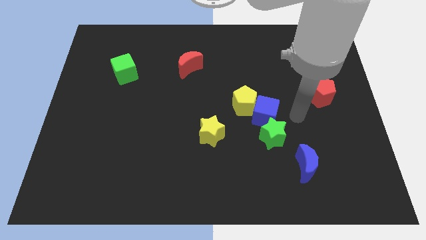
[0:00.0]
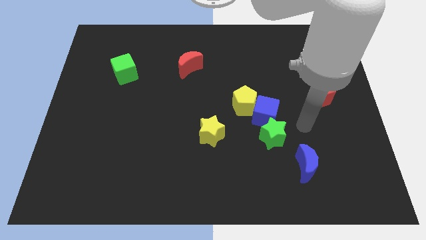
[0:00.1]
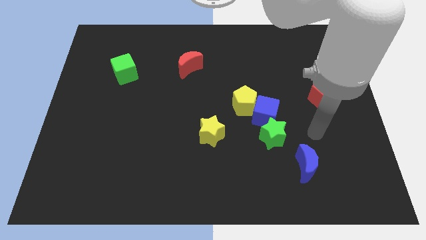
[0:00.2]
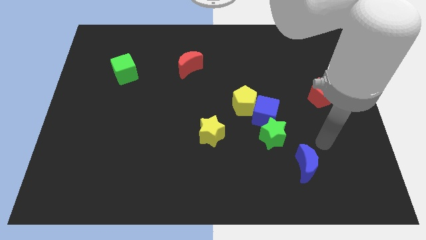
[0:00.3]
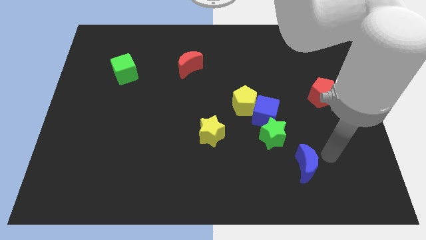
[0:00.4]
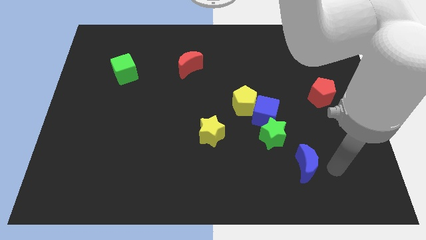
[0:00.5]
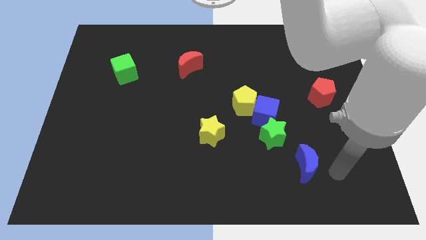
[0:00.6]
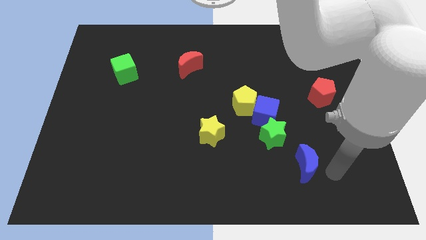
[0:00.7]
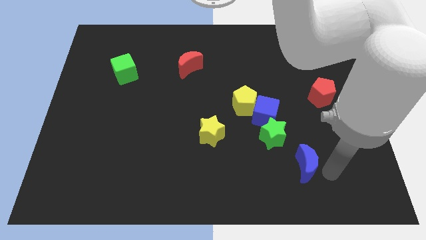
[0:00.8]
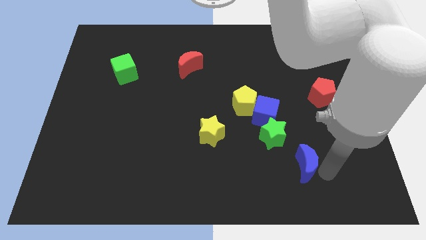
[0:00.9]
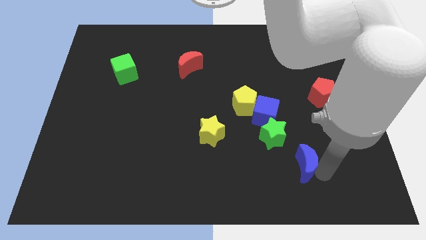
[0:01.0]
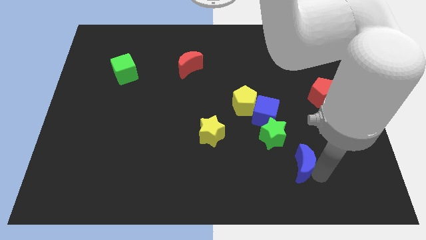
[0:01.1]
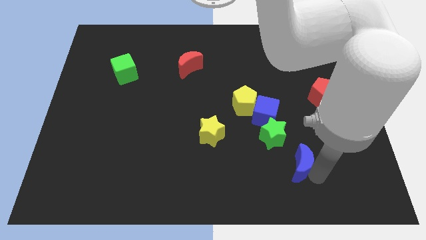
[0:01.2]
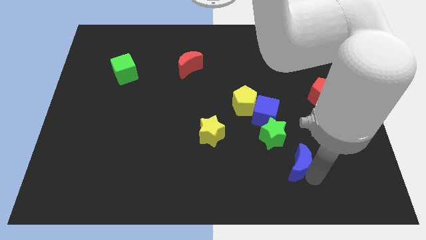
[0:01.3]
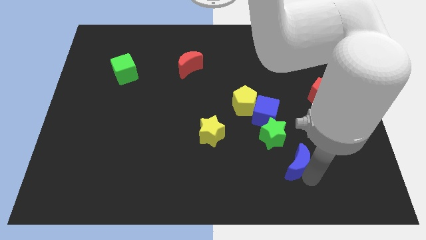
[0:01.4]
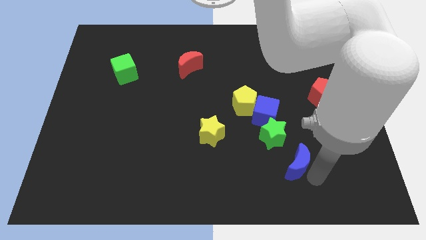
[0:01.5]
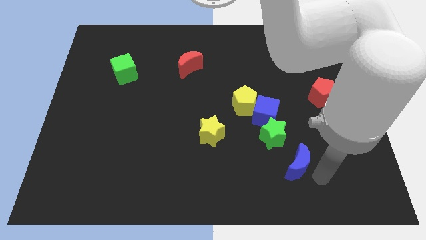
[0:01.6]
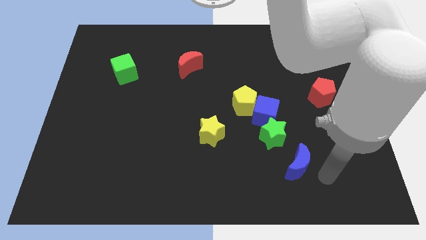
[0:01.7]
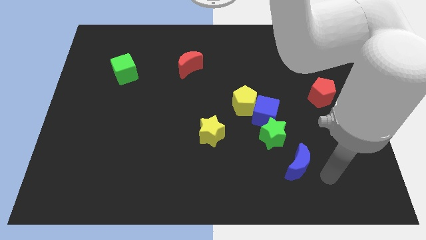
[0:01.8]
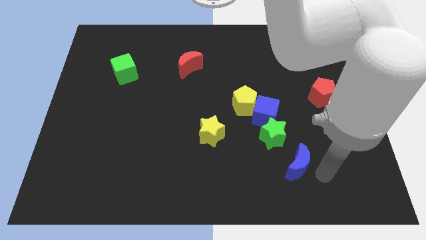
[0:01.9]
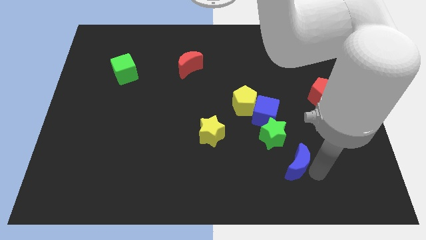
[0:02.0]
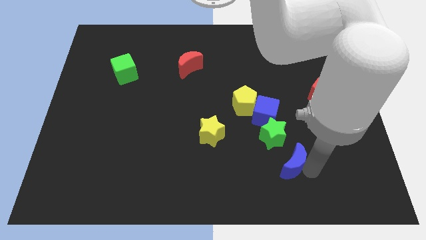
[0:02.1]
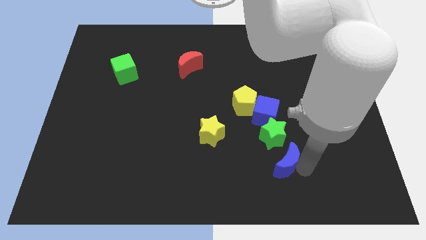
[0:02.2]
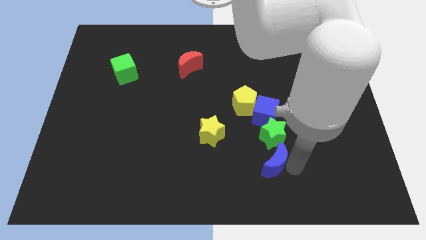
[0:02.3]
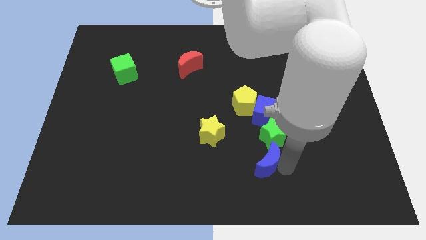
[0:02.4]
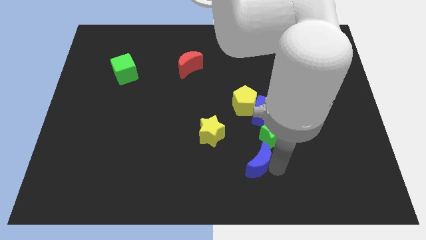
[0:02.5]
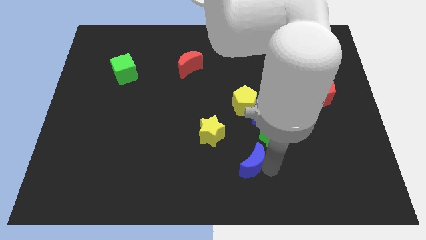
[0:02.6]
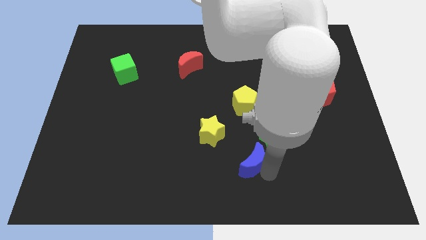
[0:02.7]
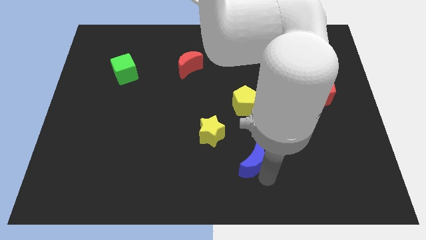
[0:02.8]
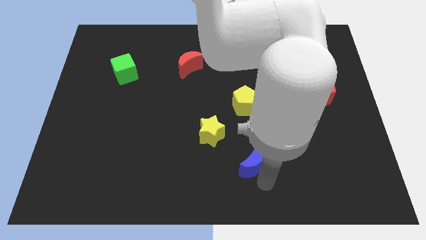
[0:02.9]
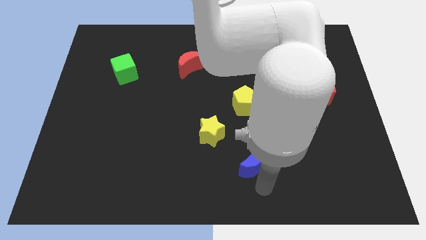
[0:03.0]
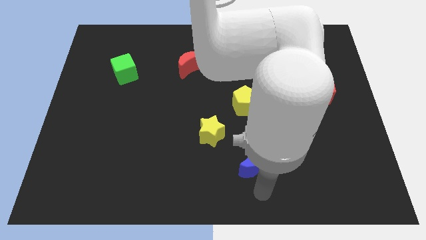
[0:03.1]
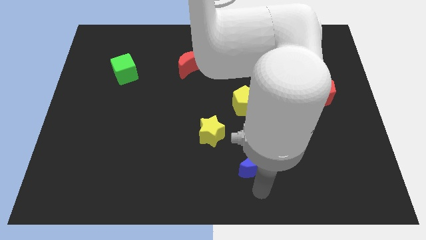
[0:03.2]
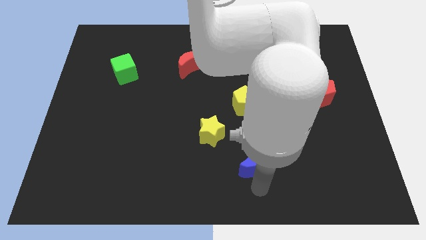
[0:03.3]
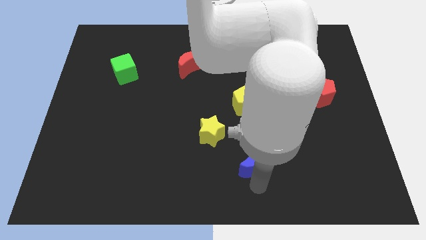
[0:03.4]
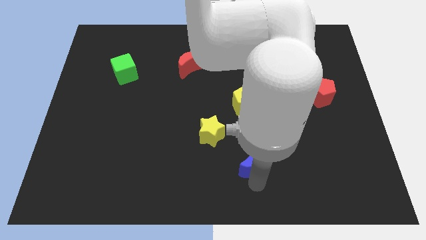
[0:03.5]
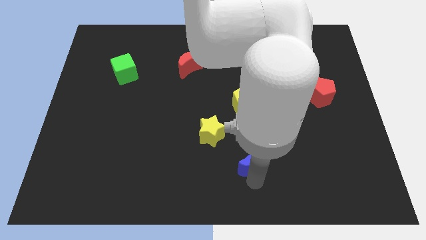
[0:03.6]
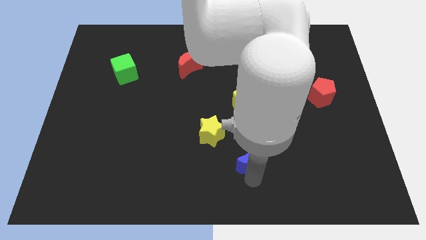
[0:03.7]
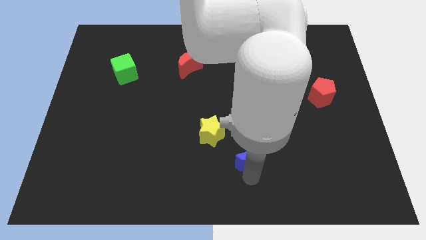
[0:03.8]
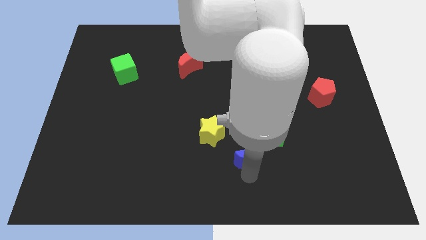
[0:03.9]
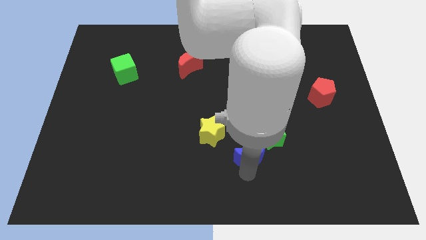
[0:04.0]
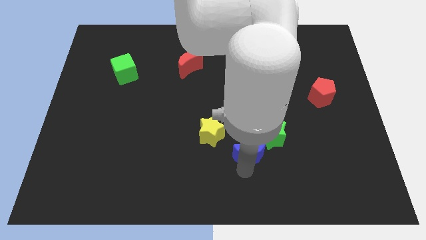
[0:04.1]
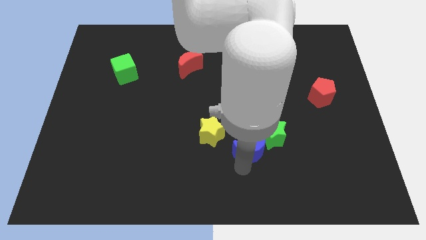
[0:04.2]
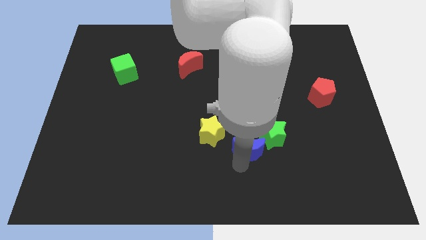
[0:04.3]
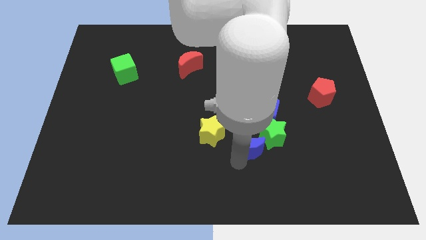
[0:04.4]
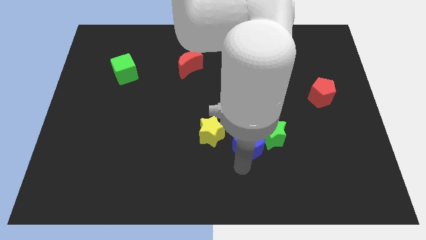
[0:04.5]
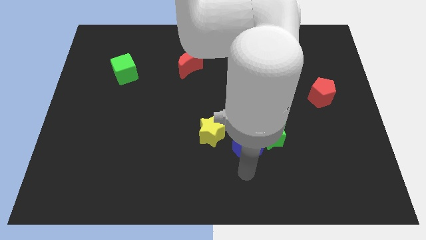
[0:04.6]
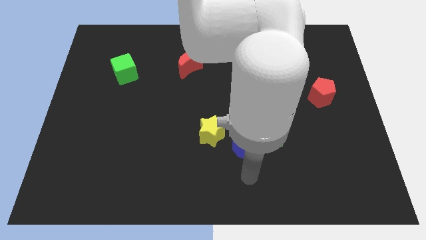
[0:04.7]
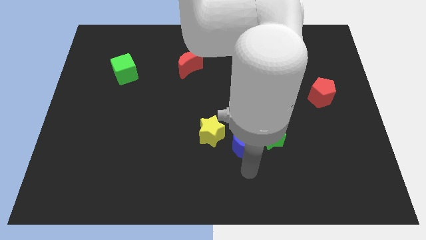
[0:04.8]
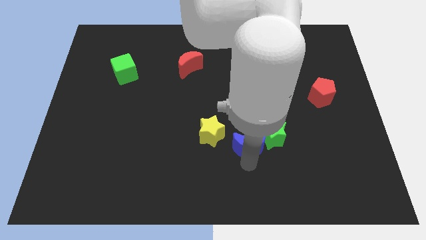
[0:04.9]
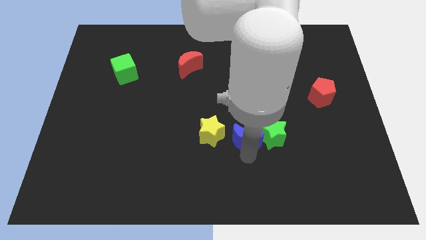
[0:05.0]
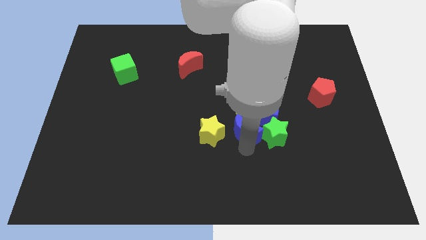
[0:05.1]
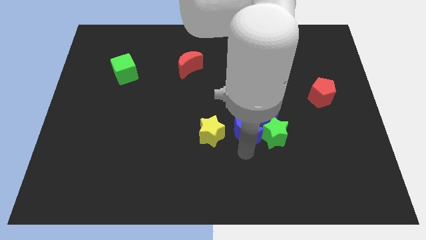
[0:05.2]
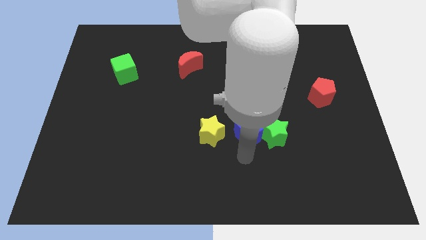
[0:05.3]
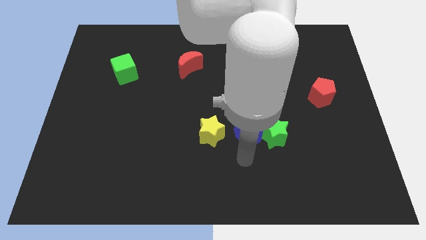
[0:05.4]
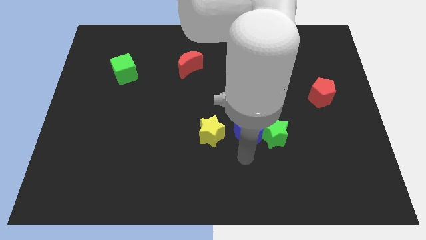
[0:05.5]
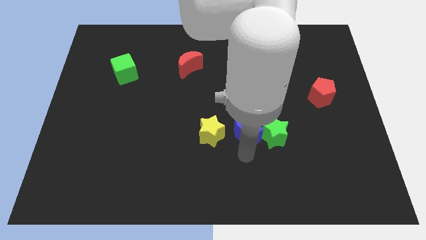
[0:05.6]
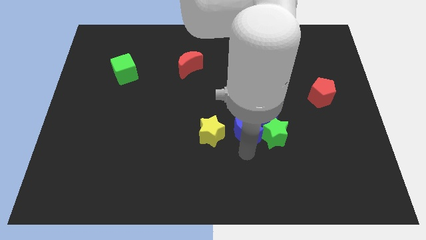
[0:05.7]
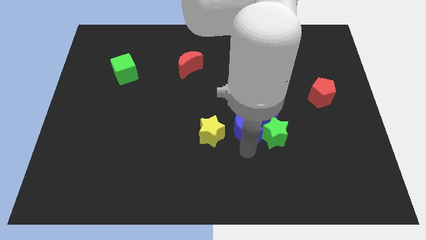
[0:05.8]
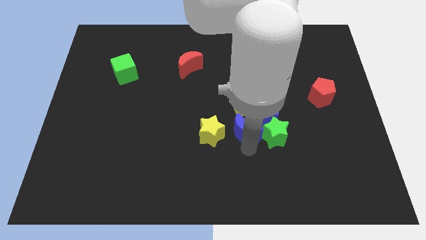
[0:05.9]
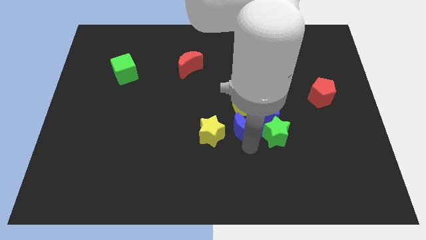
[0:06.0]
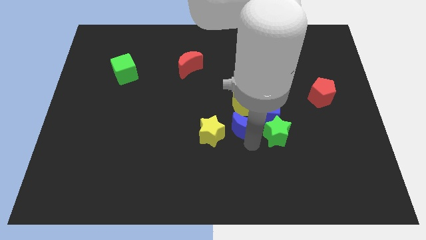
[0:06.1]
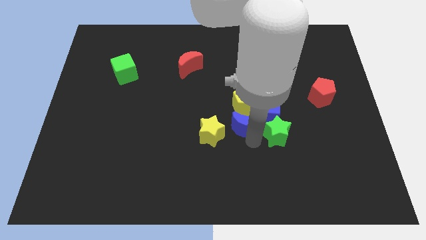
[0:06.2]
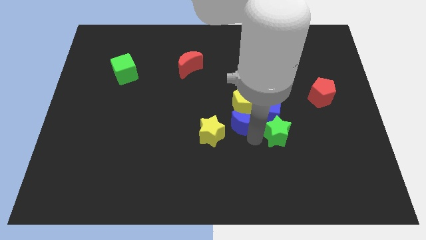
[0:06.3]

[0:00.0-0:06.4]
push the blue moon to the yellow pentagon

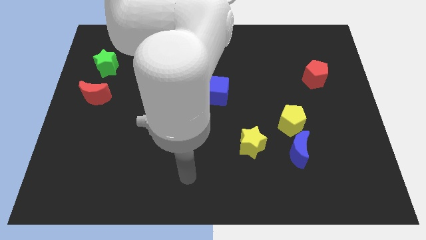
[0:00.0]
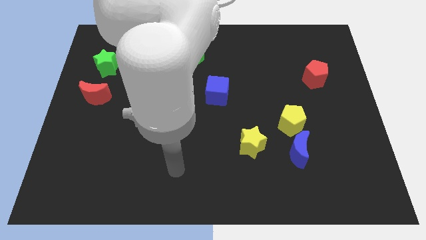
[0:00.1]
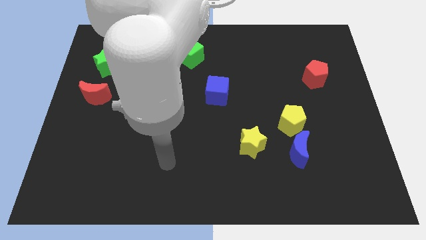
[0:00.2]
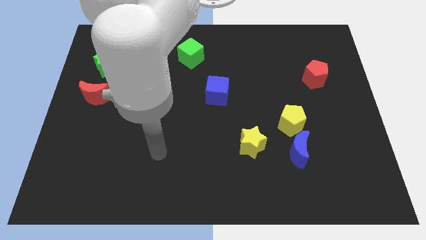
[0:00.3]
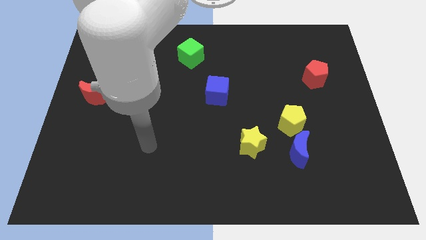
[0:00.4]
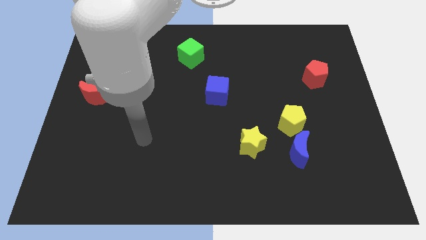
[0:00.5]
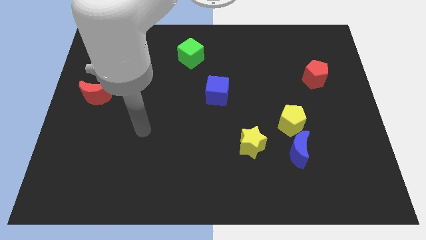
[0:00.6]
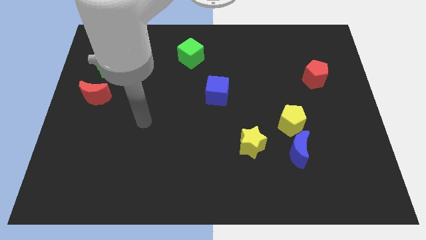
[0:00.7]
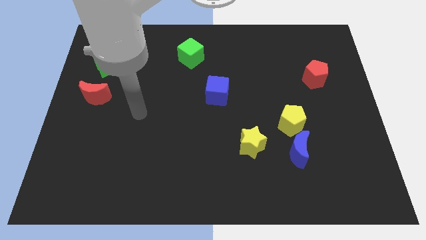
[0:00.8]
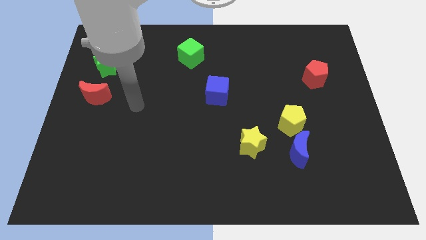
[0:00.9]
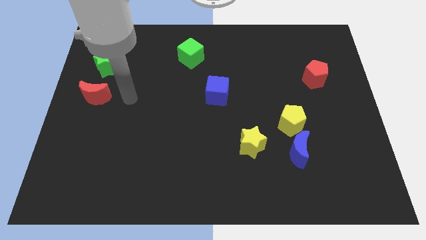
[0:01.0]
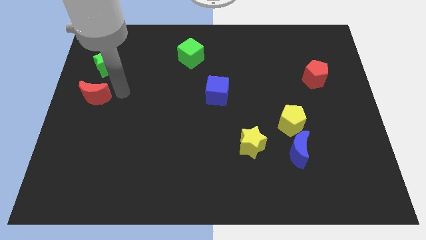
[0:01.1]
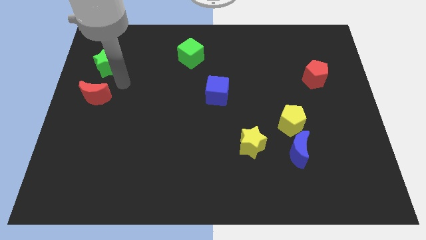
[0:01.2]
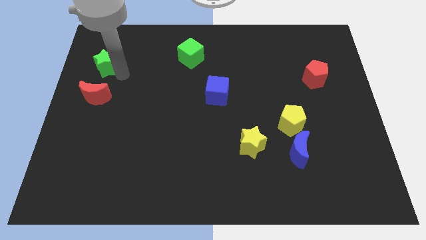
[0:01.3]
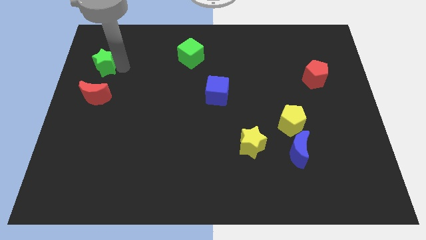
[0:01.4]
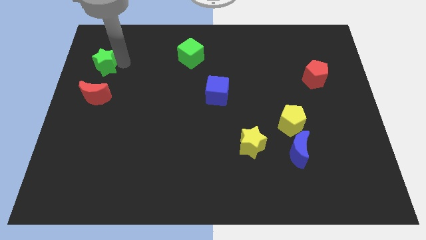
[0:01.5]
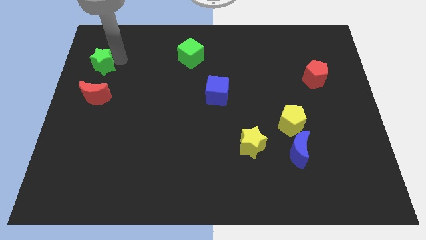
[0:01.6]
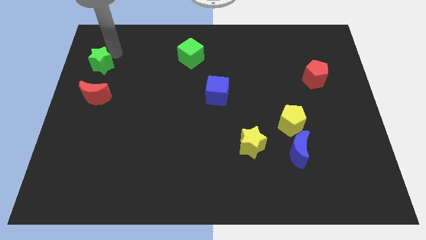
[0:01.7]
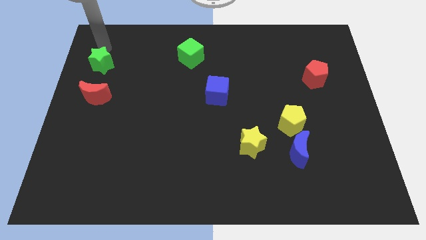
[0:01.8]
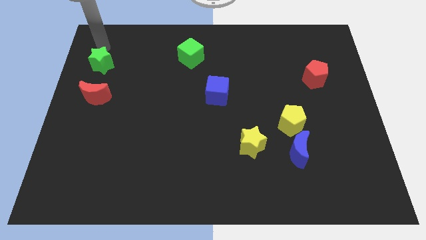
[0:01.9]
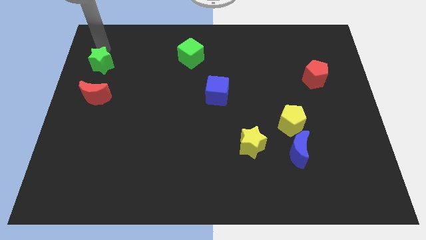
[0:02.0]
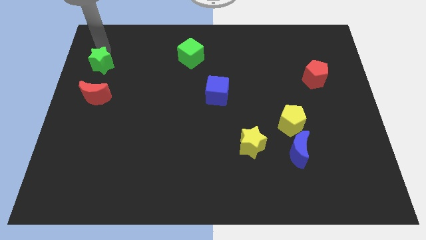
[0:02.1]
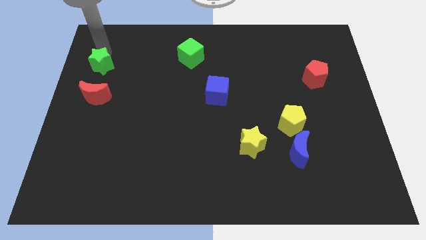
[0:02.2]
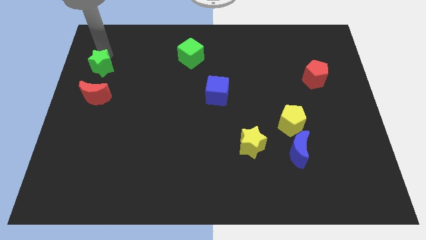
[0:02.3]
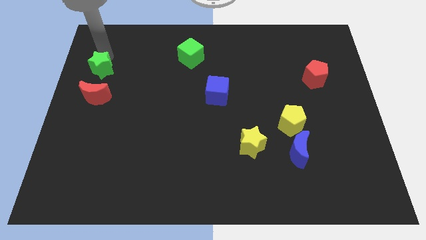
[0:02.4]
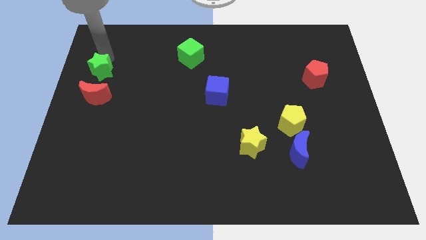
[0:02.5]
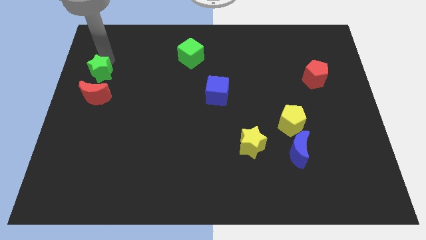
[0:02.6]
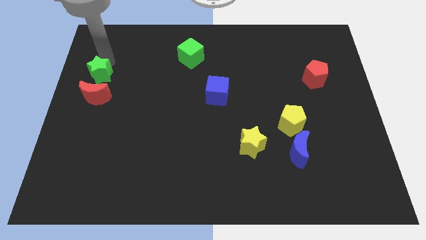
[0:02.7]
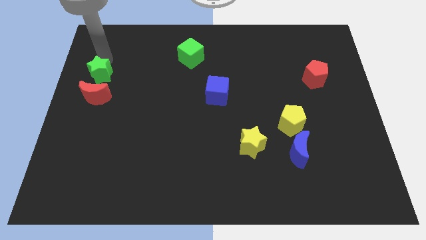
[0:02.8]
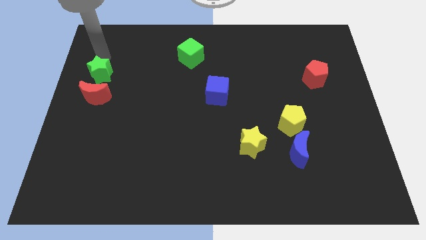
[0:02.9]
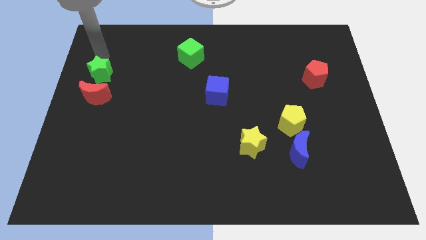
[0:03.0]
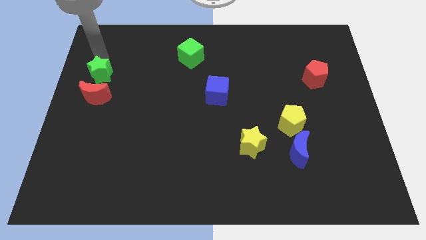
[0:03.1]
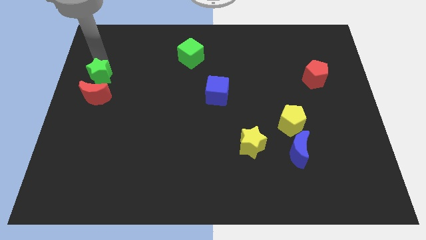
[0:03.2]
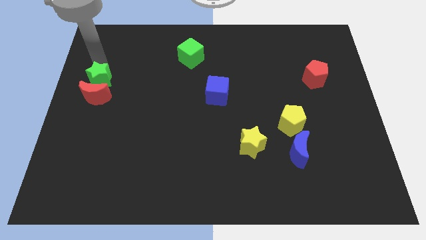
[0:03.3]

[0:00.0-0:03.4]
push the green star close to the red moon
